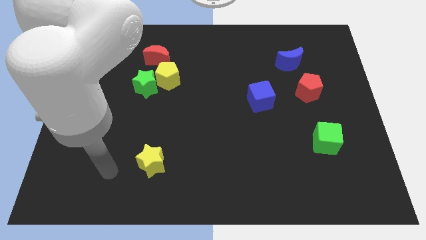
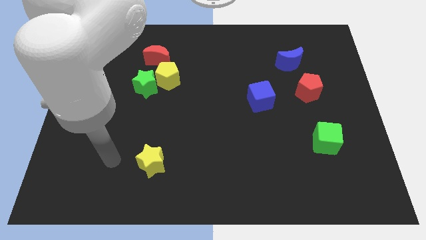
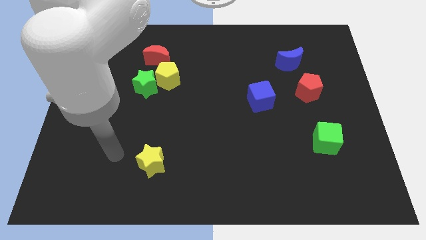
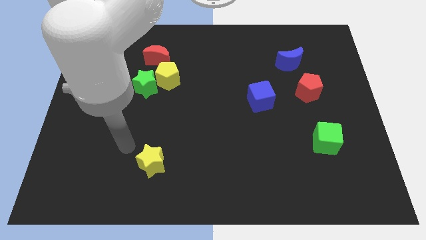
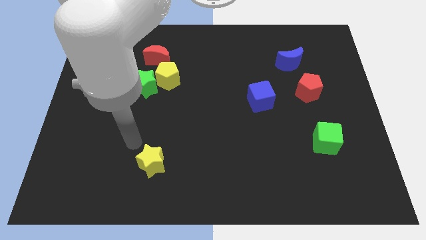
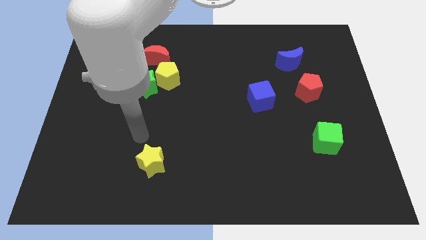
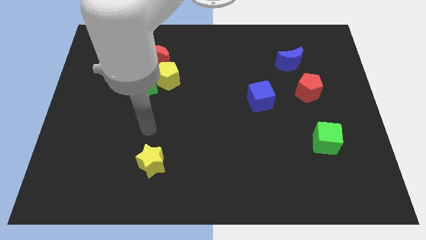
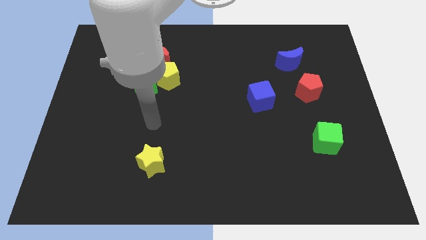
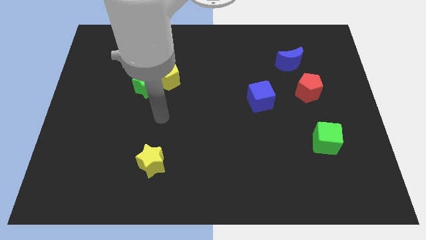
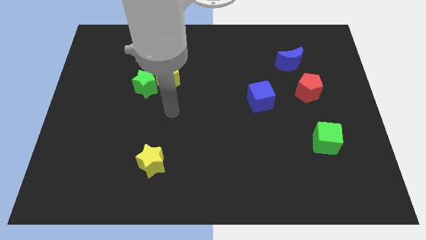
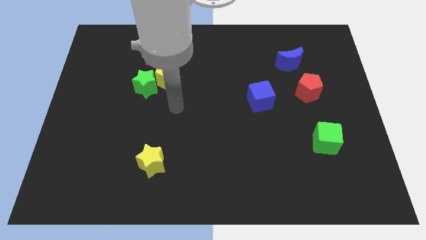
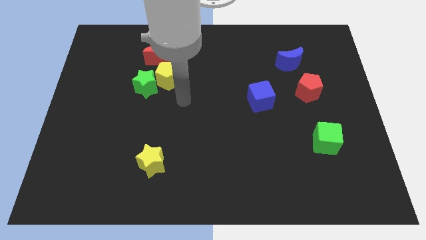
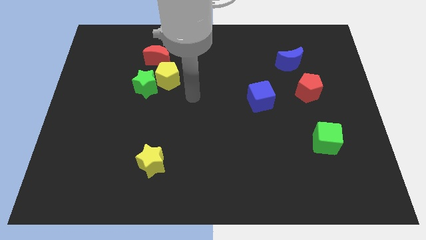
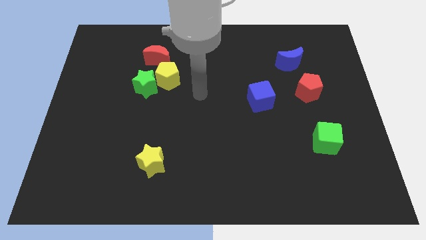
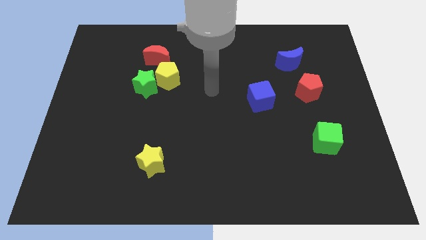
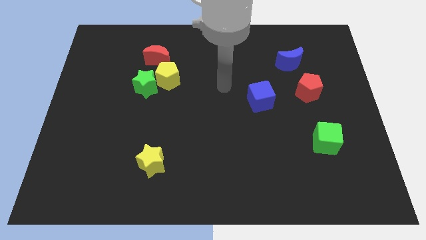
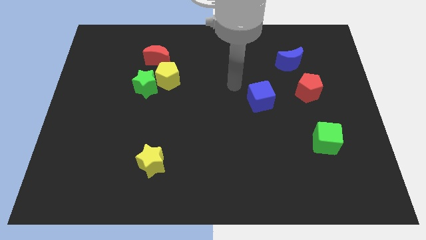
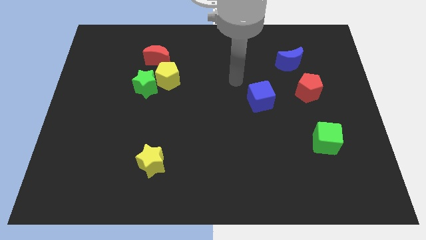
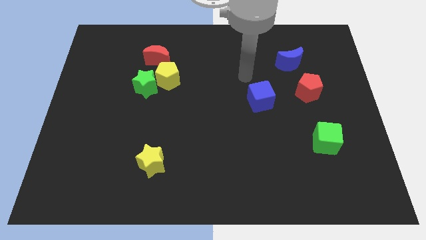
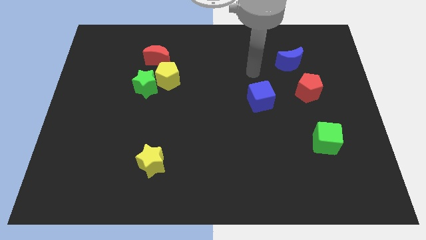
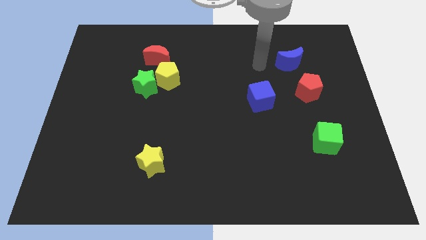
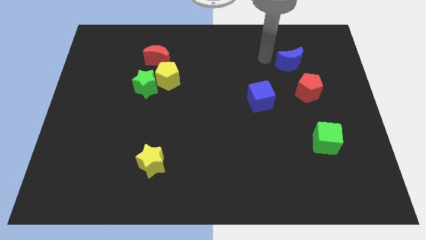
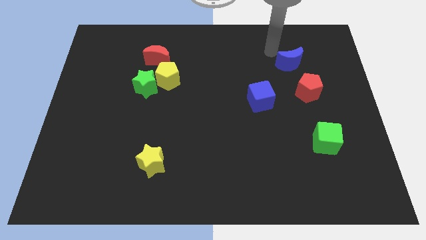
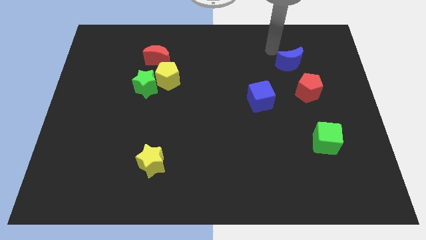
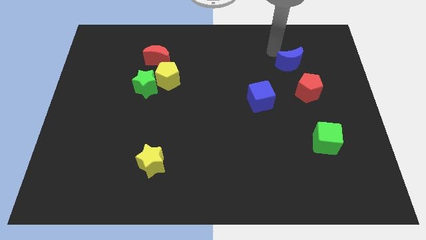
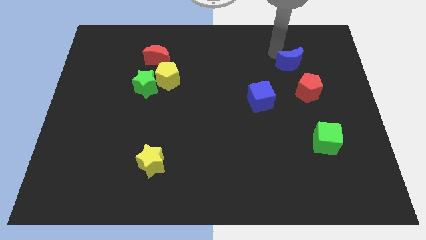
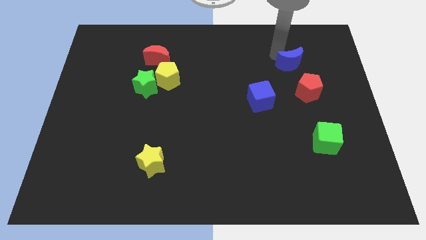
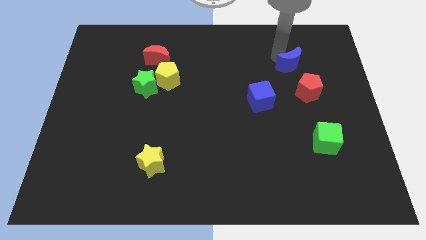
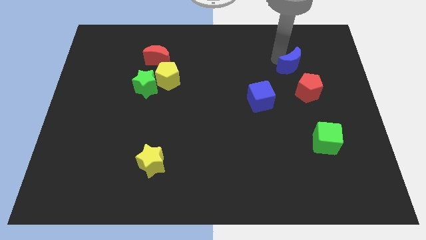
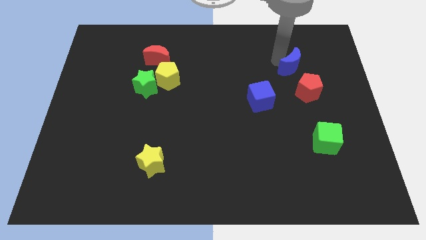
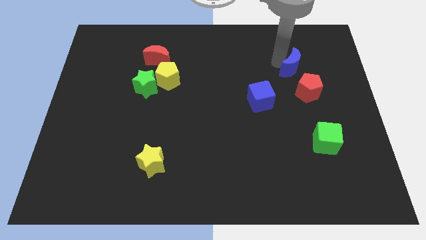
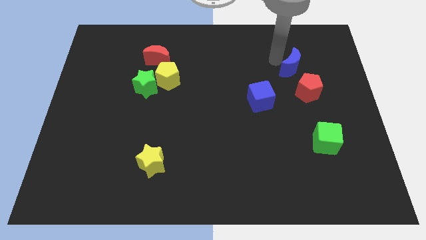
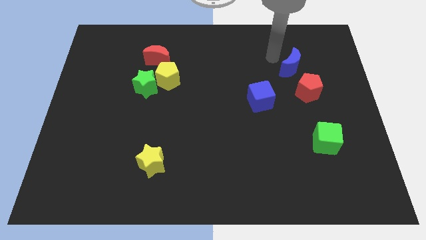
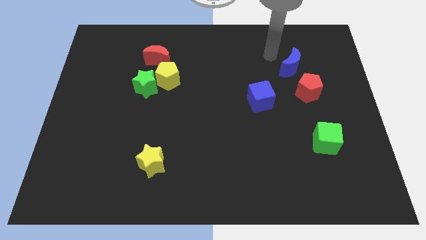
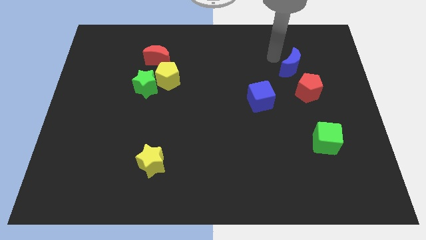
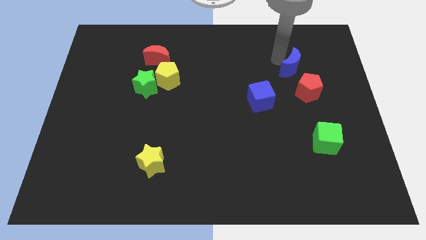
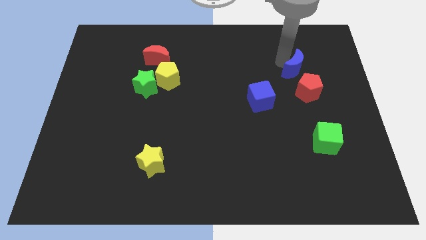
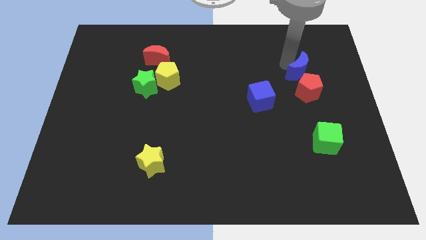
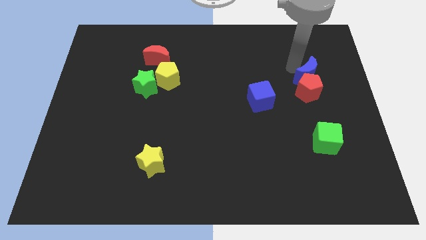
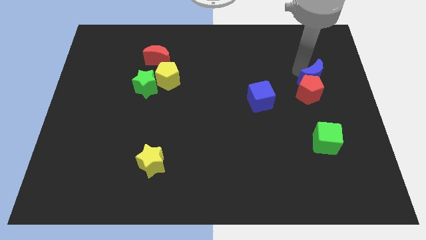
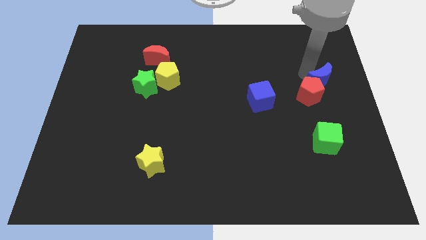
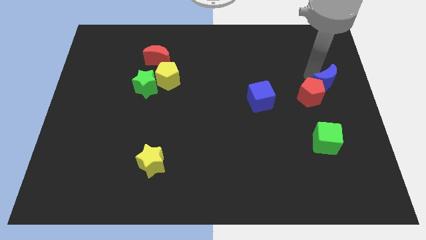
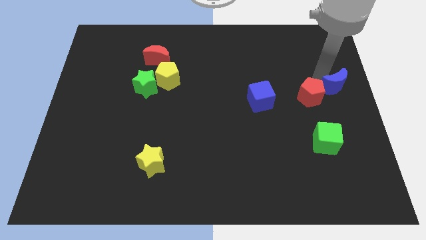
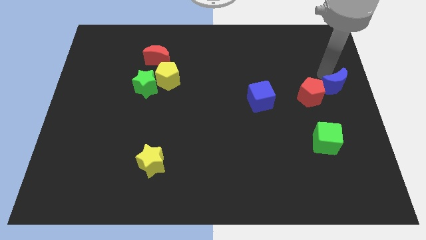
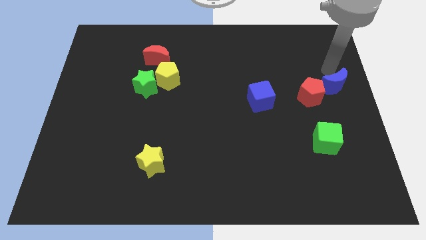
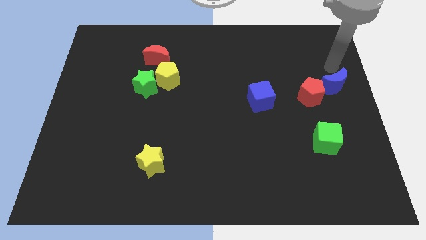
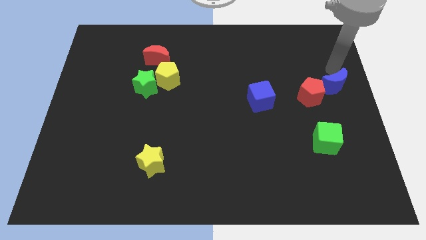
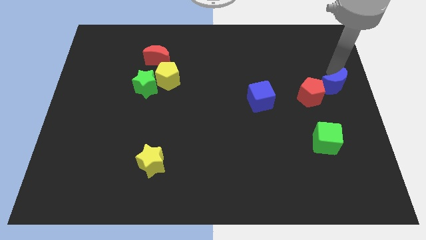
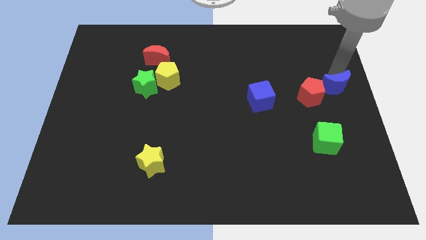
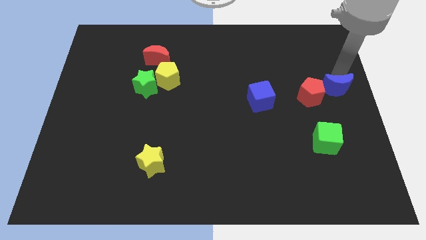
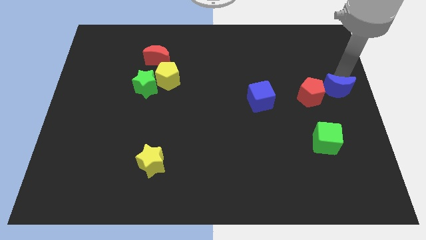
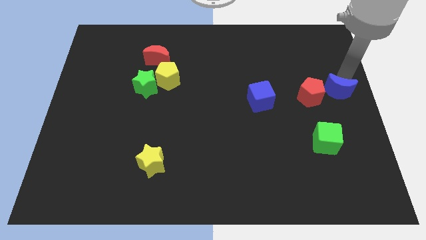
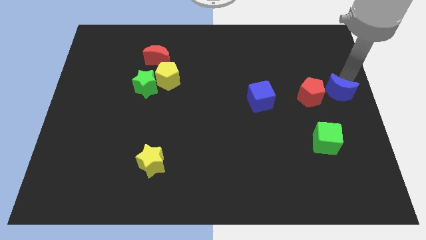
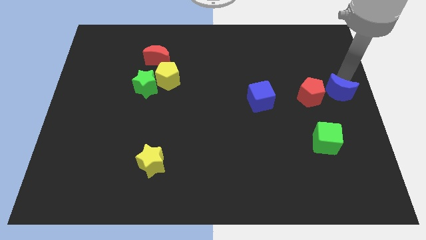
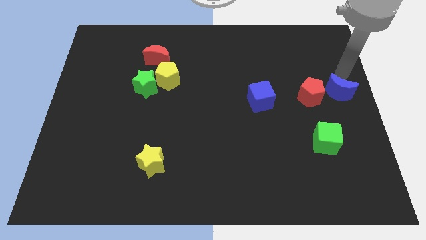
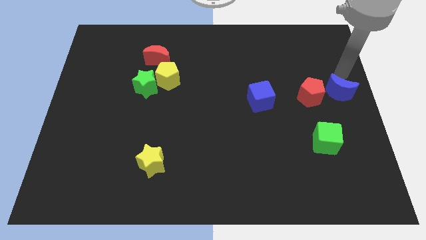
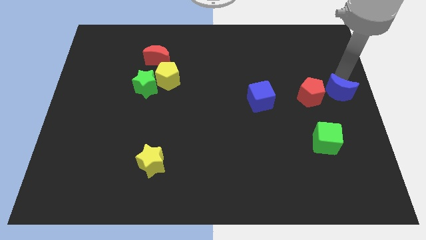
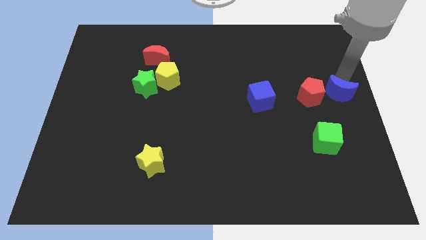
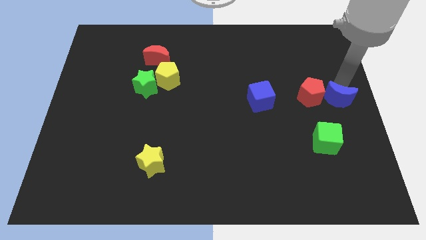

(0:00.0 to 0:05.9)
slide the blue moon diagonally down and to the right of the red pentagon

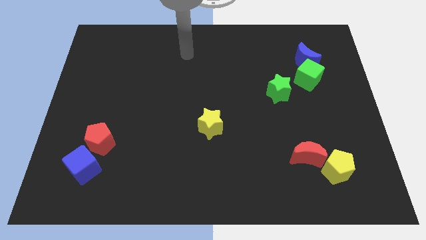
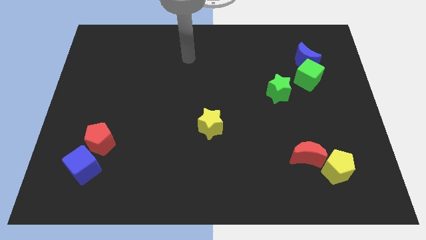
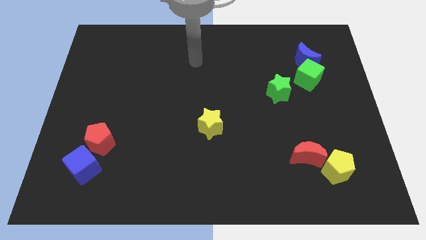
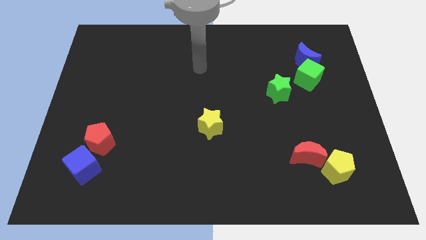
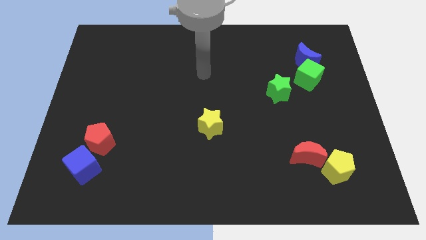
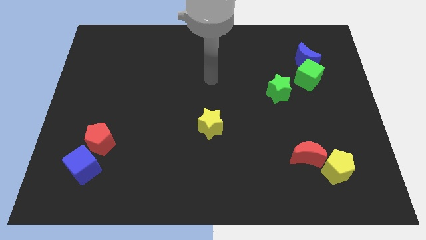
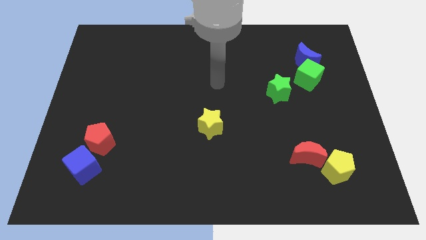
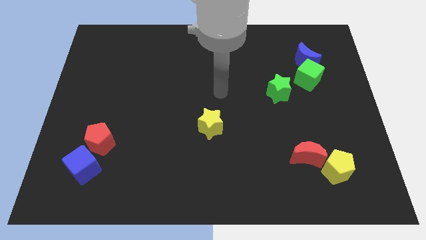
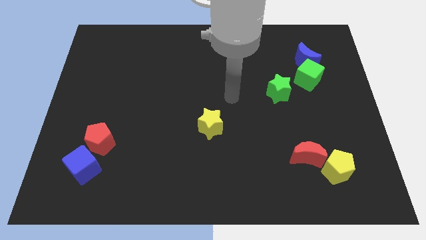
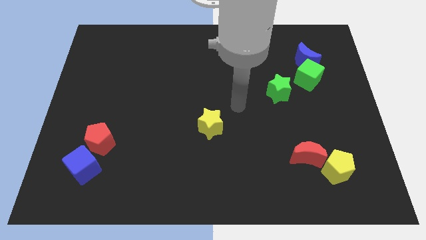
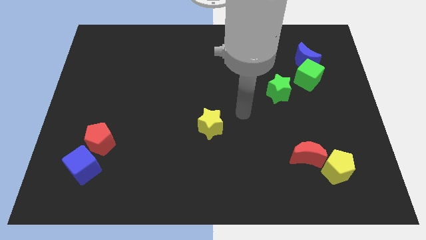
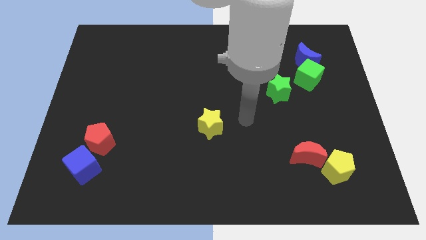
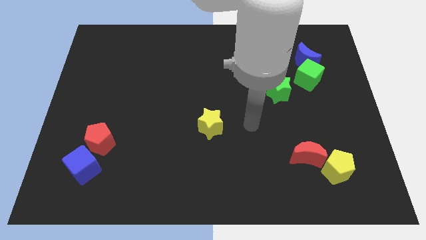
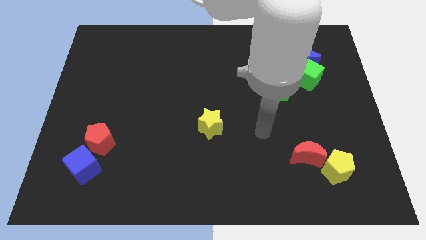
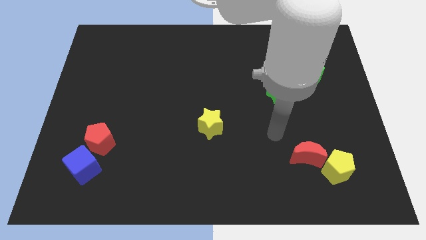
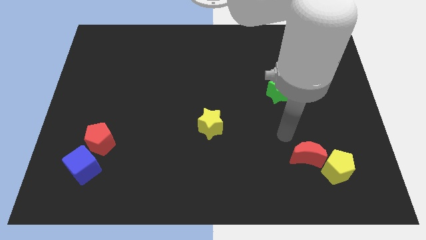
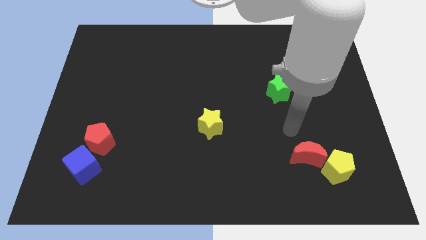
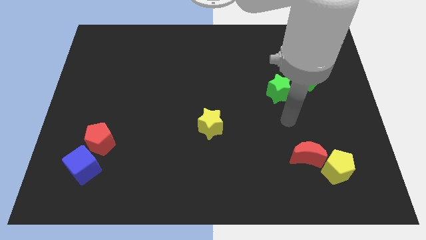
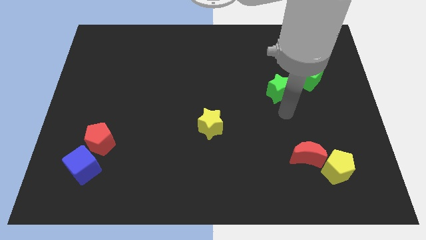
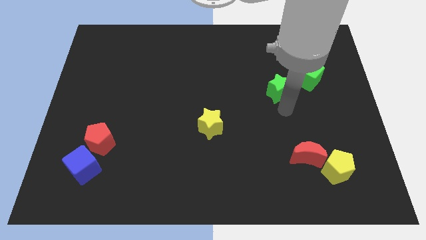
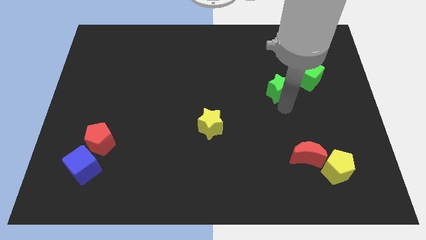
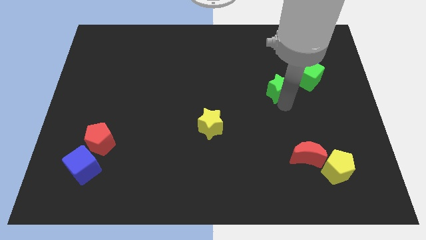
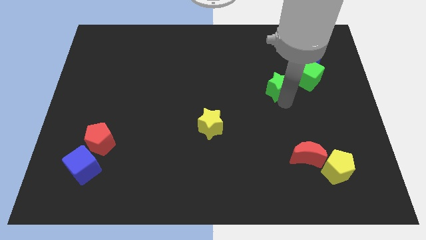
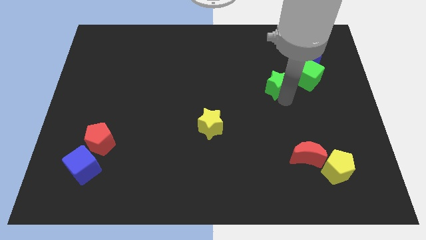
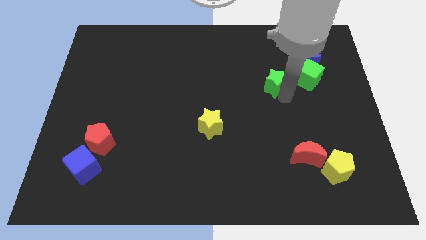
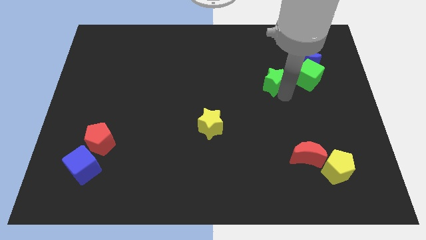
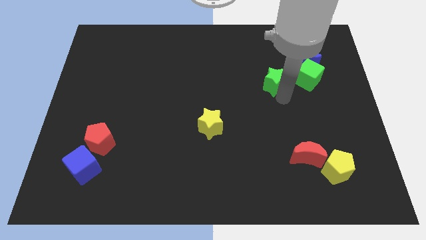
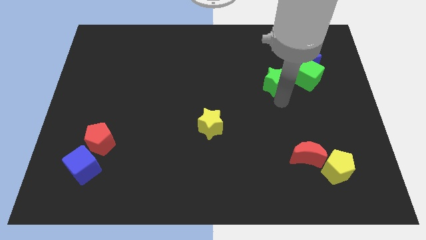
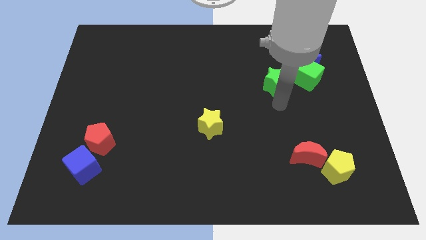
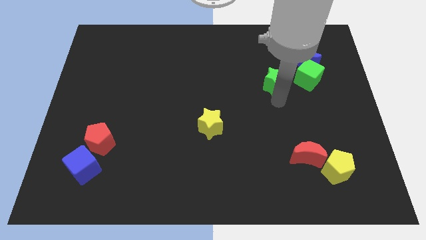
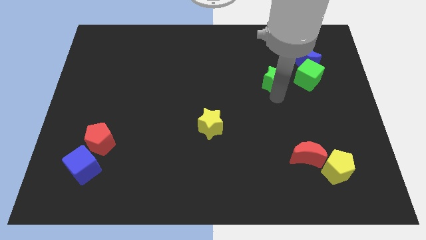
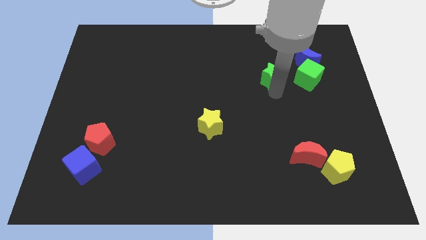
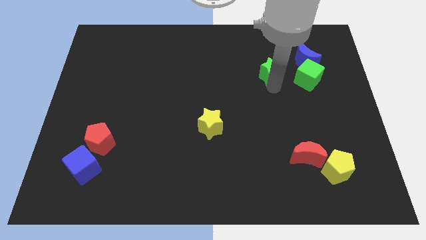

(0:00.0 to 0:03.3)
slide the green star left of the blue moon
